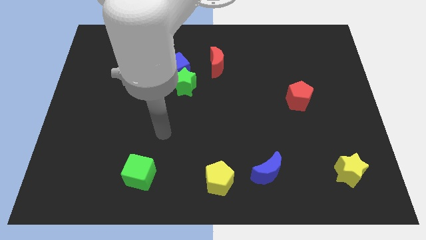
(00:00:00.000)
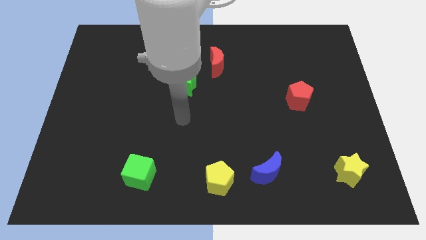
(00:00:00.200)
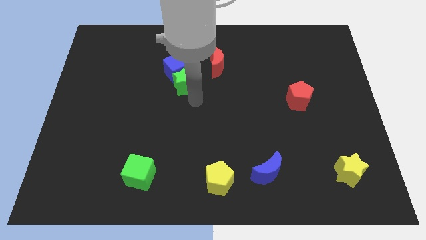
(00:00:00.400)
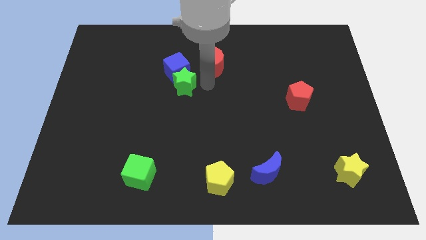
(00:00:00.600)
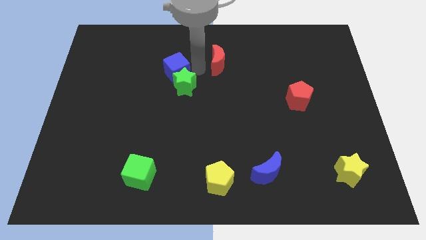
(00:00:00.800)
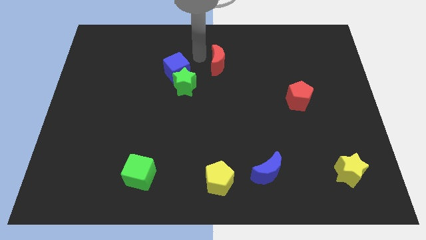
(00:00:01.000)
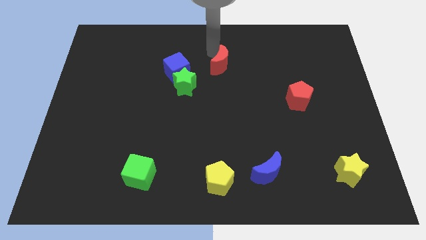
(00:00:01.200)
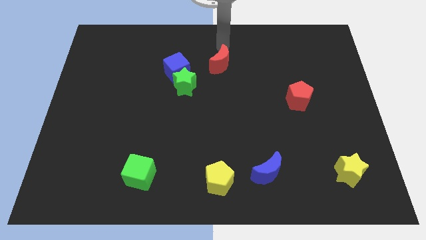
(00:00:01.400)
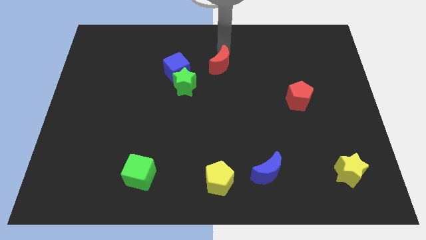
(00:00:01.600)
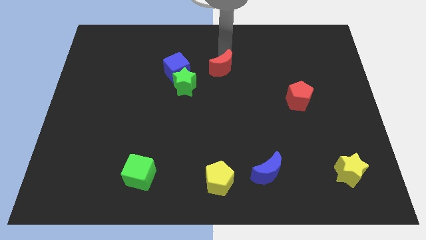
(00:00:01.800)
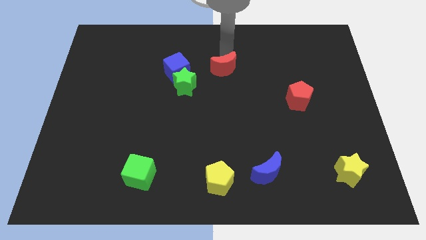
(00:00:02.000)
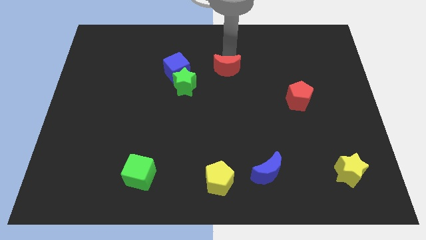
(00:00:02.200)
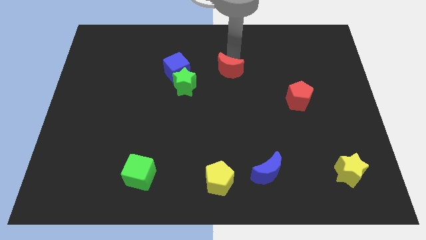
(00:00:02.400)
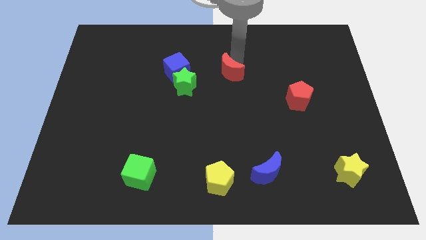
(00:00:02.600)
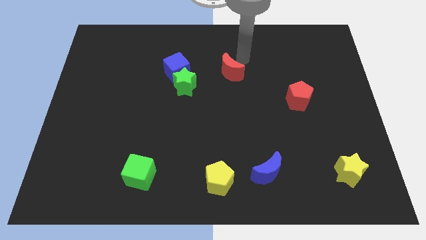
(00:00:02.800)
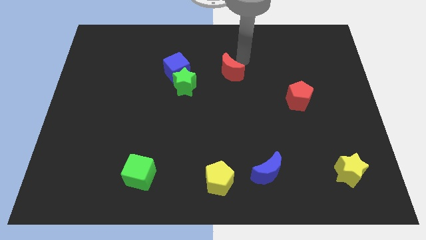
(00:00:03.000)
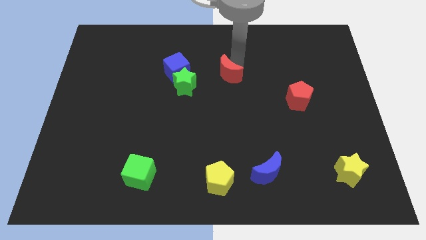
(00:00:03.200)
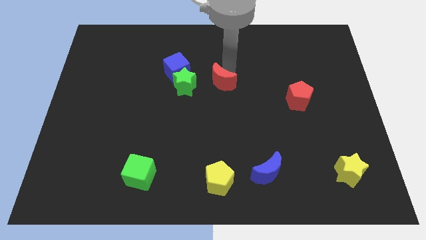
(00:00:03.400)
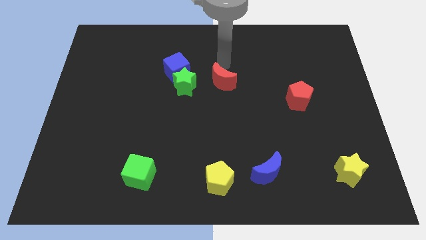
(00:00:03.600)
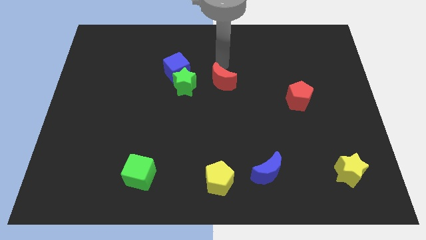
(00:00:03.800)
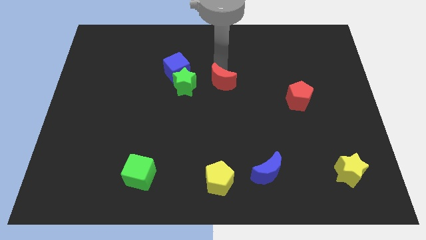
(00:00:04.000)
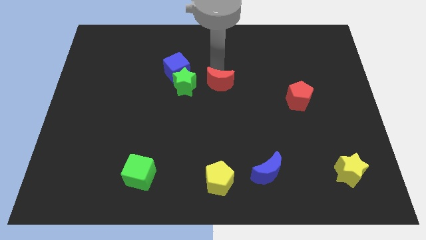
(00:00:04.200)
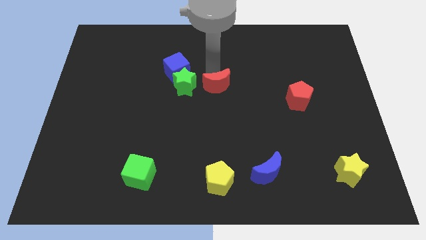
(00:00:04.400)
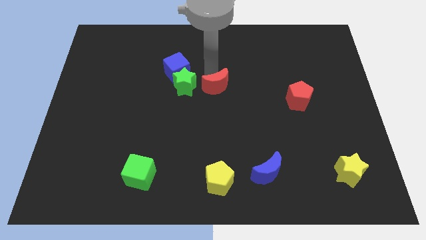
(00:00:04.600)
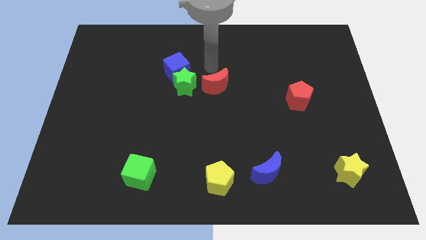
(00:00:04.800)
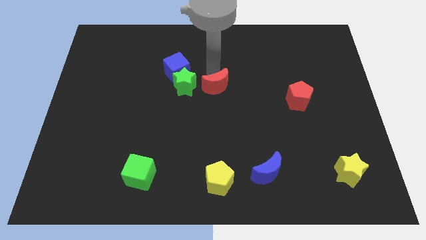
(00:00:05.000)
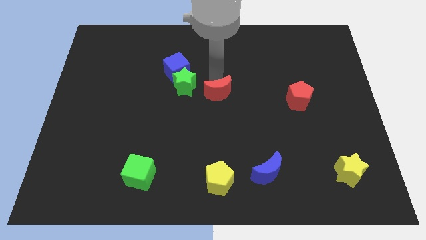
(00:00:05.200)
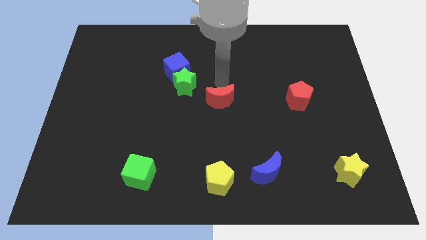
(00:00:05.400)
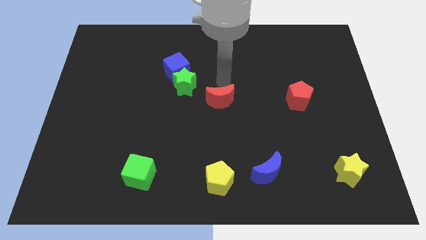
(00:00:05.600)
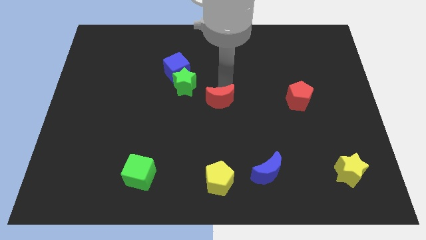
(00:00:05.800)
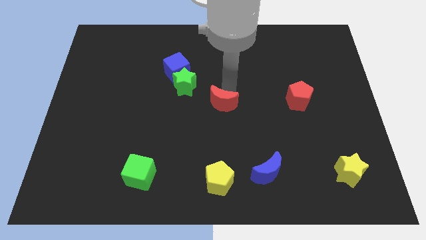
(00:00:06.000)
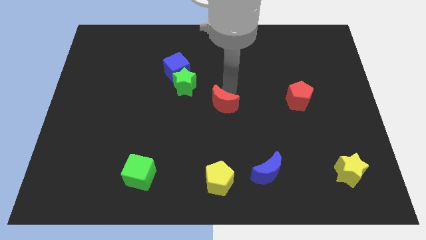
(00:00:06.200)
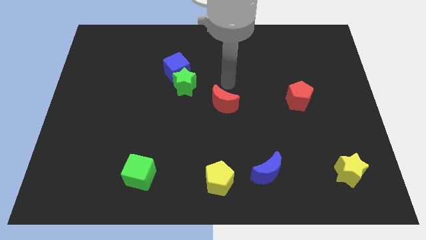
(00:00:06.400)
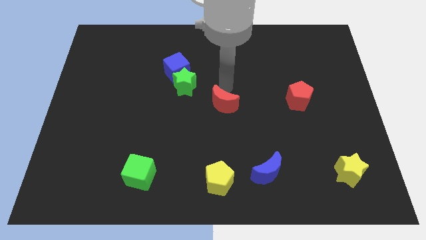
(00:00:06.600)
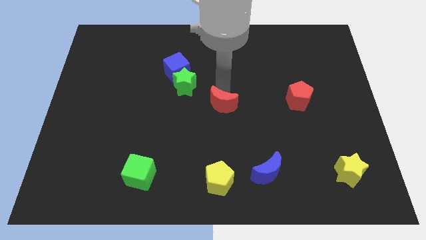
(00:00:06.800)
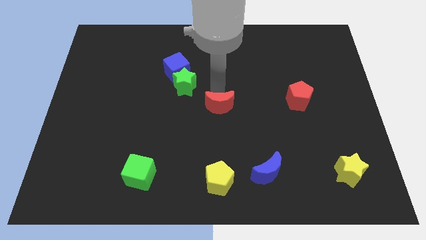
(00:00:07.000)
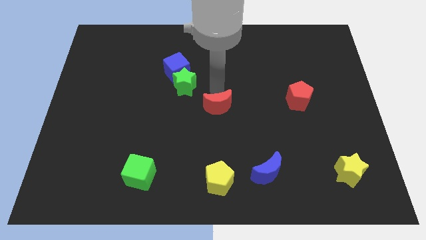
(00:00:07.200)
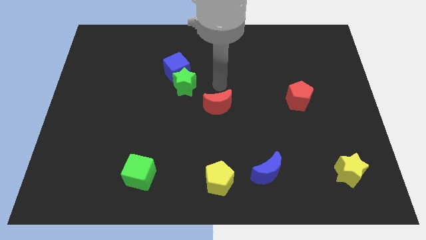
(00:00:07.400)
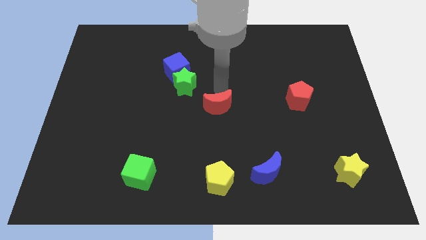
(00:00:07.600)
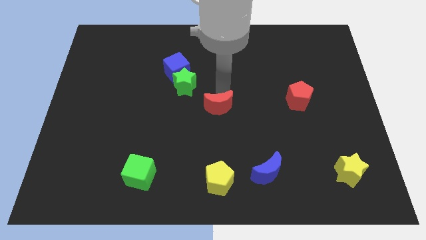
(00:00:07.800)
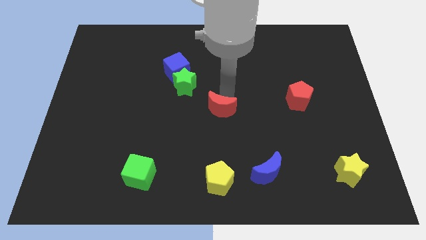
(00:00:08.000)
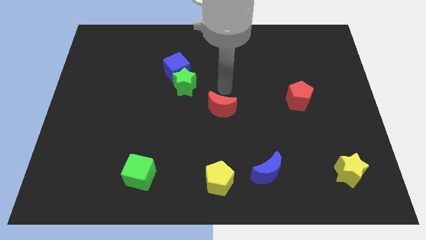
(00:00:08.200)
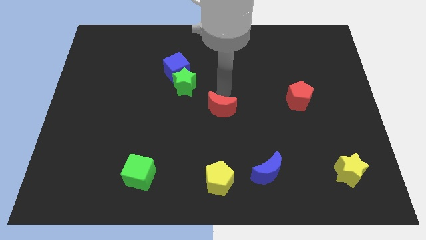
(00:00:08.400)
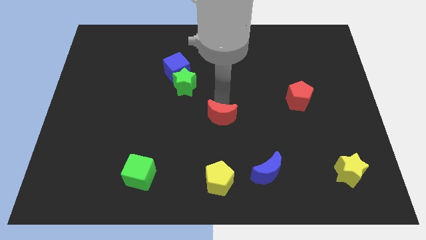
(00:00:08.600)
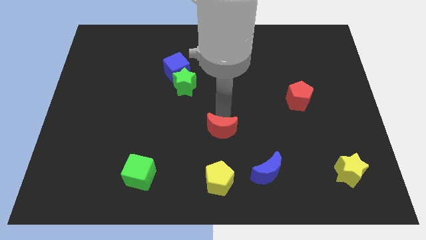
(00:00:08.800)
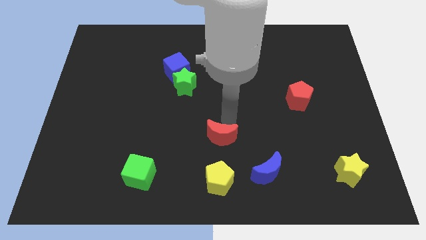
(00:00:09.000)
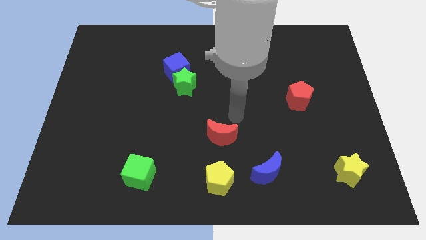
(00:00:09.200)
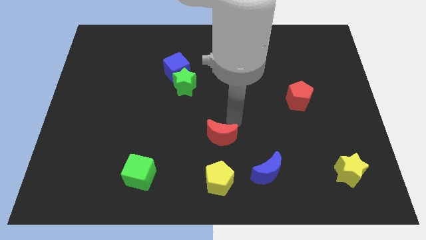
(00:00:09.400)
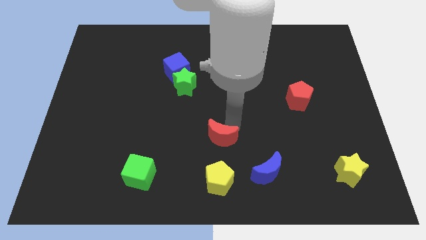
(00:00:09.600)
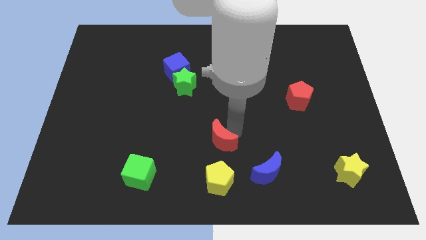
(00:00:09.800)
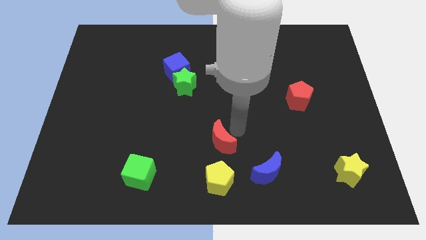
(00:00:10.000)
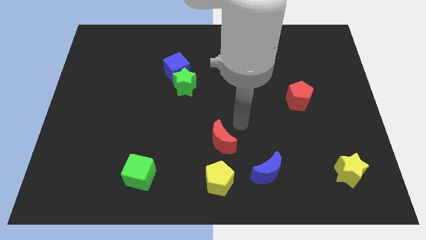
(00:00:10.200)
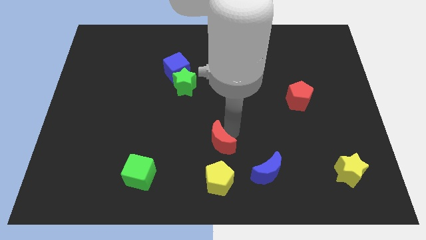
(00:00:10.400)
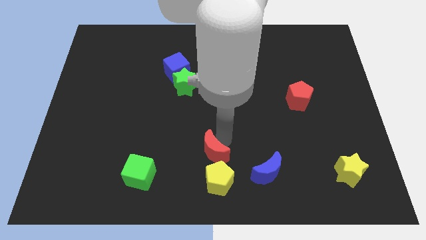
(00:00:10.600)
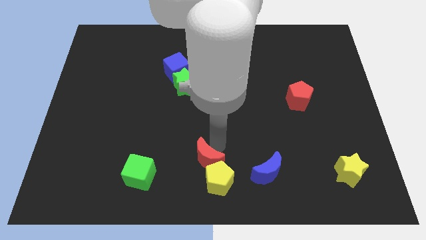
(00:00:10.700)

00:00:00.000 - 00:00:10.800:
move the red moon to the bottom side
